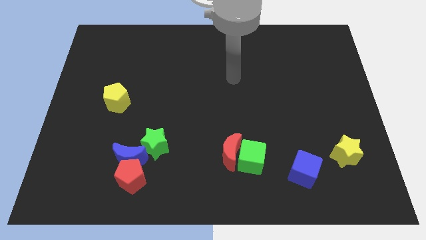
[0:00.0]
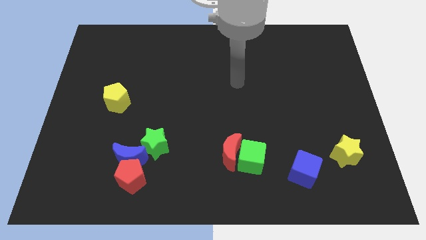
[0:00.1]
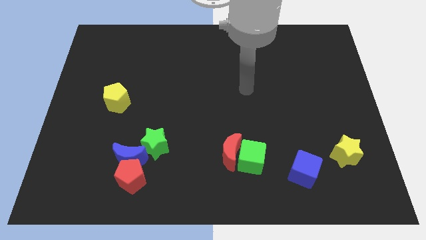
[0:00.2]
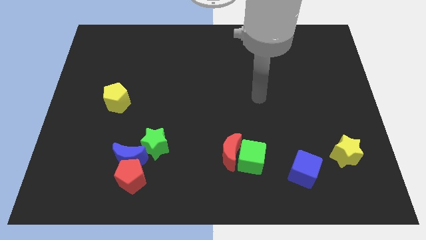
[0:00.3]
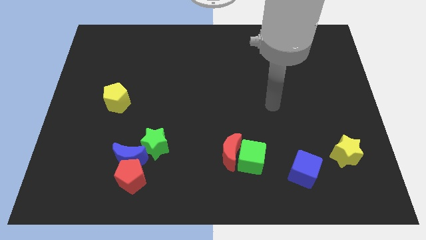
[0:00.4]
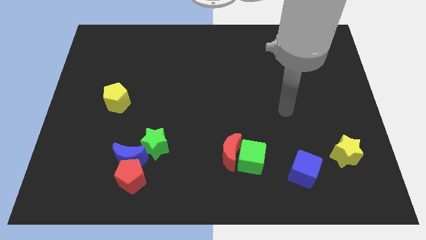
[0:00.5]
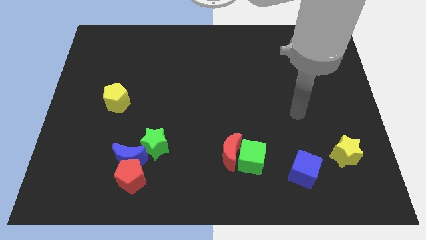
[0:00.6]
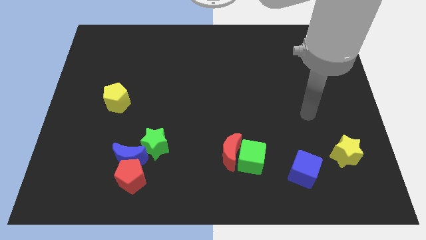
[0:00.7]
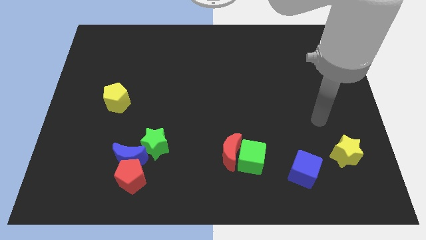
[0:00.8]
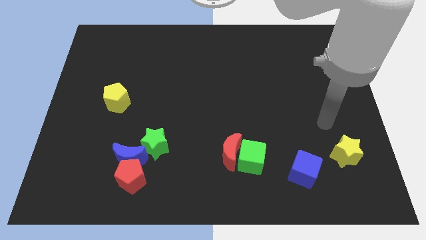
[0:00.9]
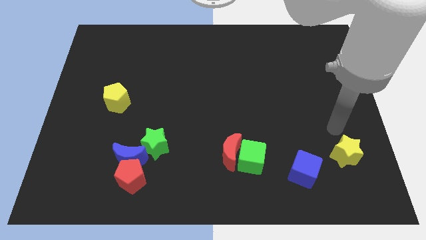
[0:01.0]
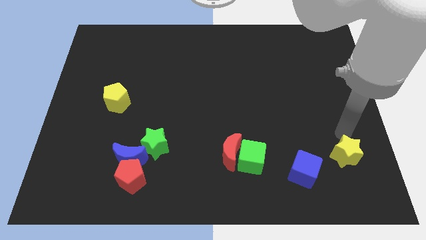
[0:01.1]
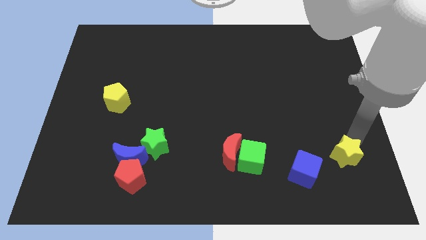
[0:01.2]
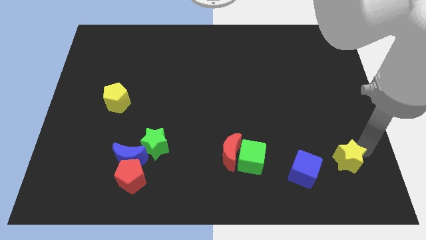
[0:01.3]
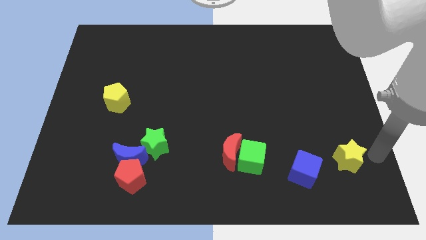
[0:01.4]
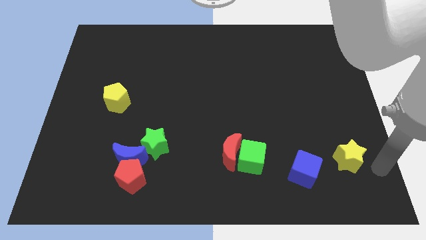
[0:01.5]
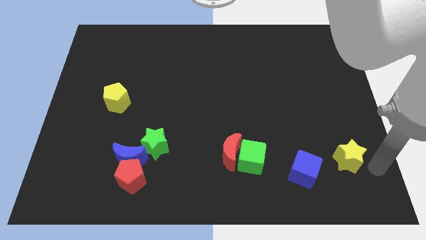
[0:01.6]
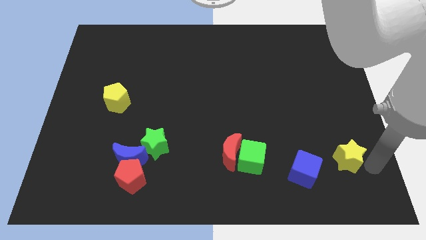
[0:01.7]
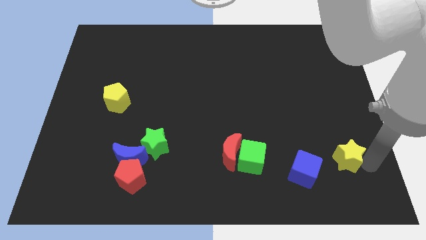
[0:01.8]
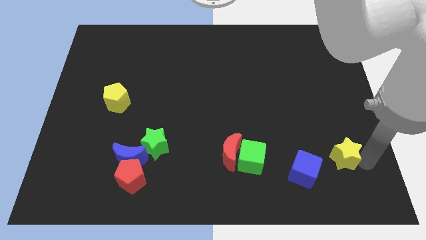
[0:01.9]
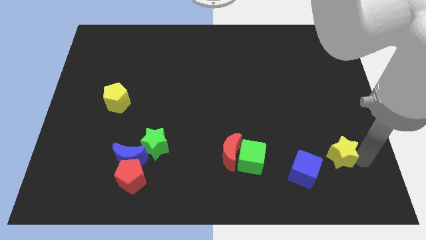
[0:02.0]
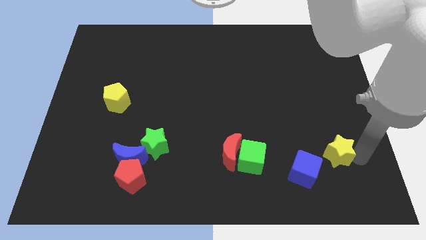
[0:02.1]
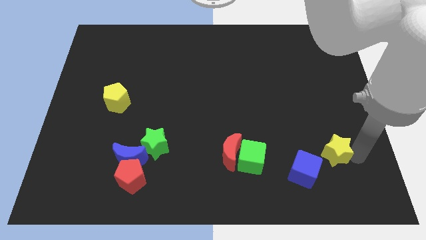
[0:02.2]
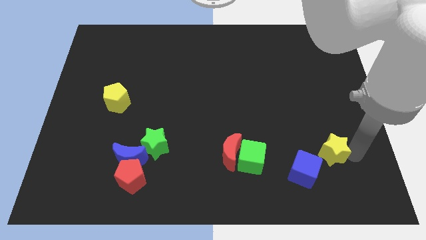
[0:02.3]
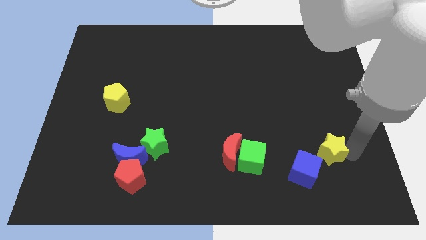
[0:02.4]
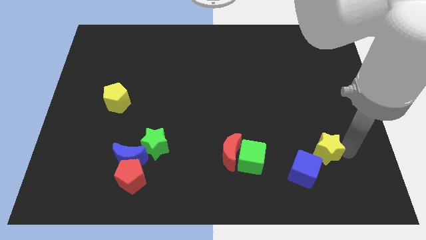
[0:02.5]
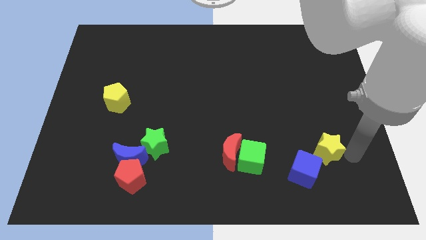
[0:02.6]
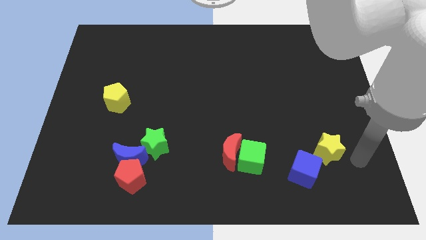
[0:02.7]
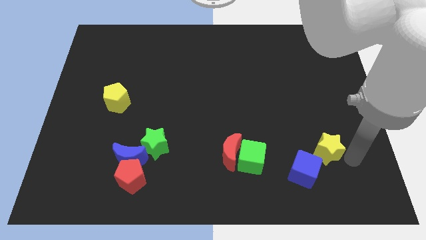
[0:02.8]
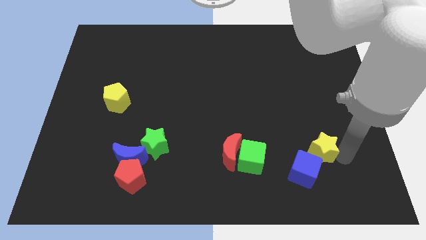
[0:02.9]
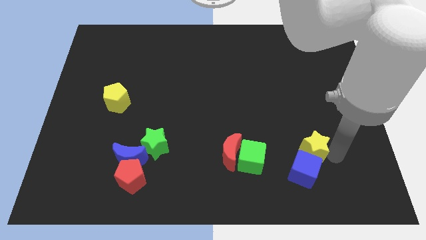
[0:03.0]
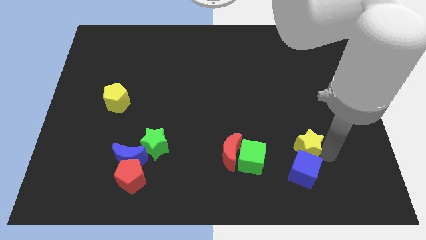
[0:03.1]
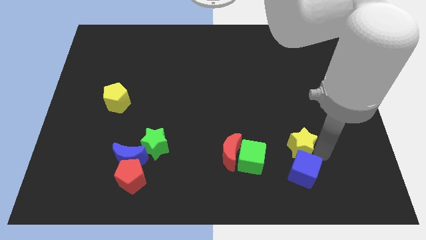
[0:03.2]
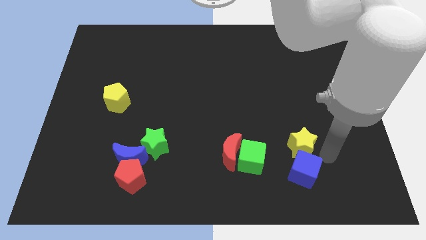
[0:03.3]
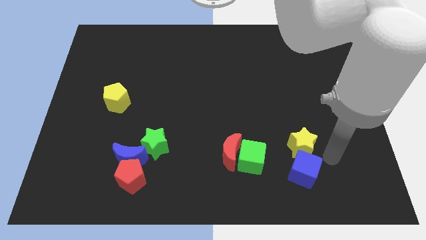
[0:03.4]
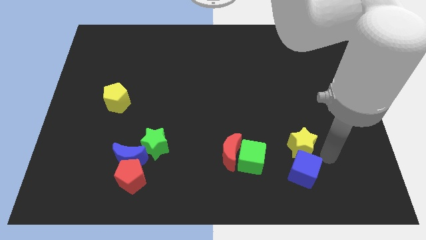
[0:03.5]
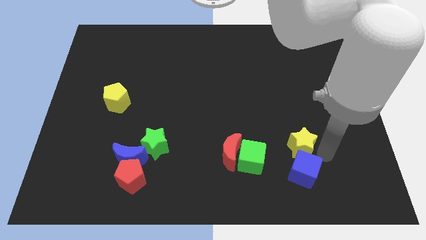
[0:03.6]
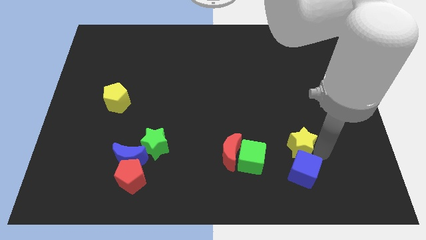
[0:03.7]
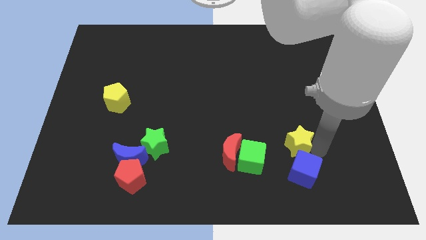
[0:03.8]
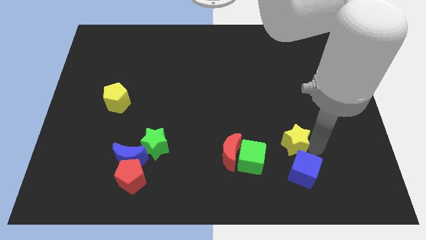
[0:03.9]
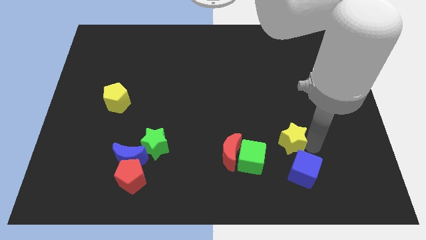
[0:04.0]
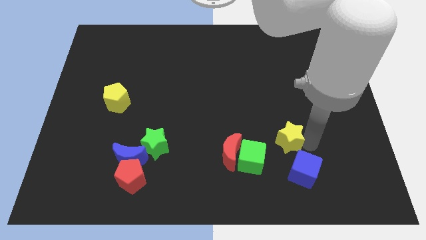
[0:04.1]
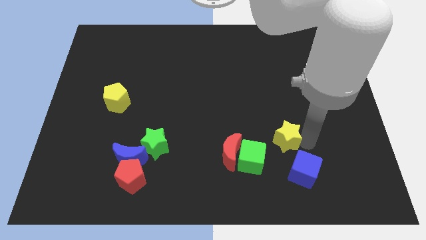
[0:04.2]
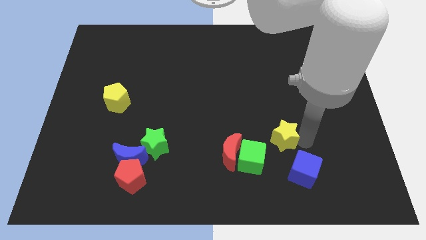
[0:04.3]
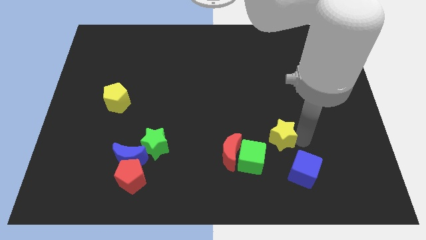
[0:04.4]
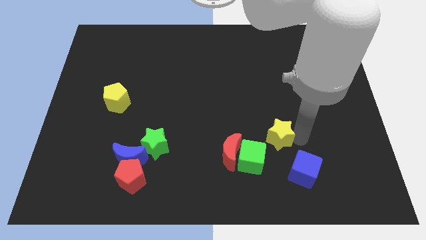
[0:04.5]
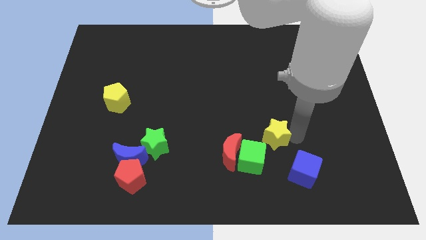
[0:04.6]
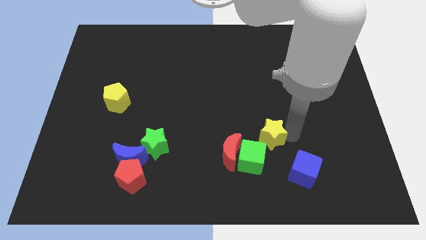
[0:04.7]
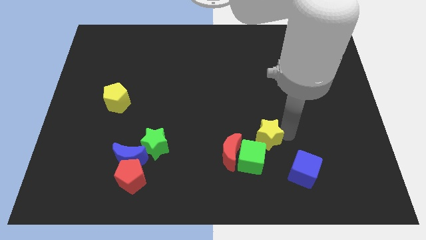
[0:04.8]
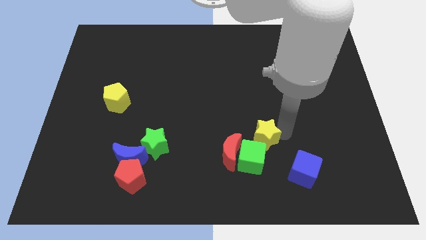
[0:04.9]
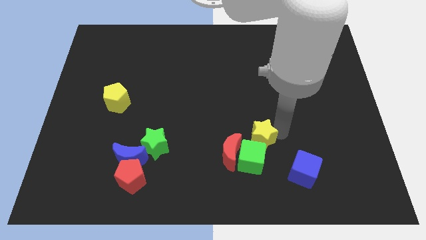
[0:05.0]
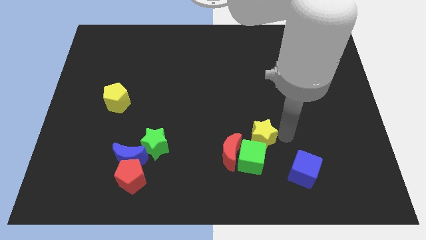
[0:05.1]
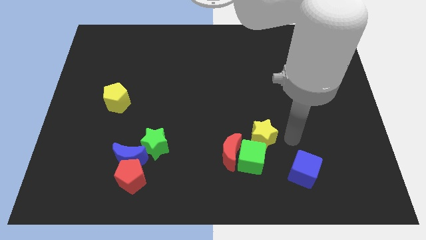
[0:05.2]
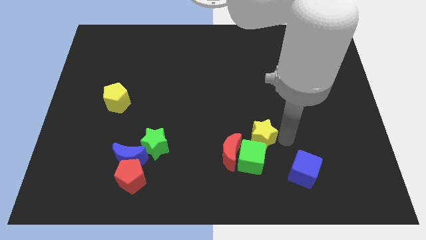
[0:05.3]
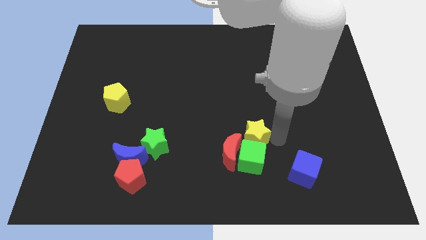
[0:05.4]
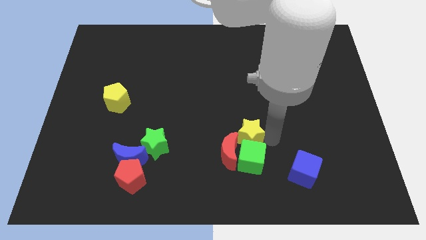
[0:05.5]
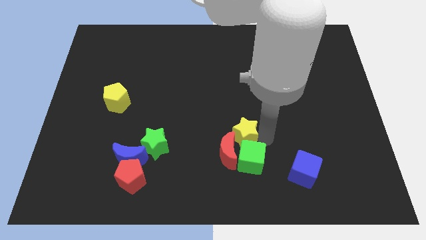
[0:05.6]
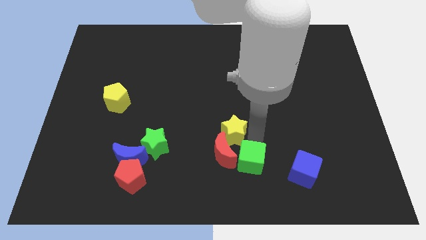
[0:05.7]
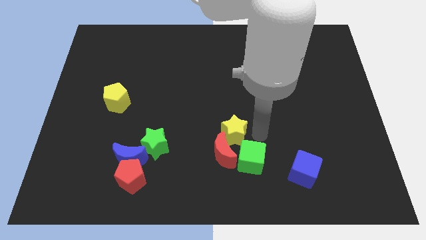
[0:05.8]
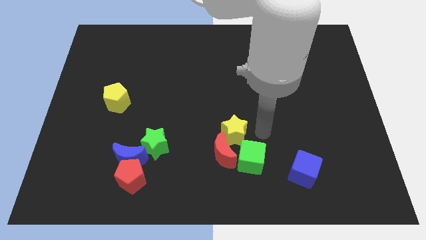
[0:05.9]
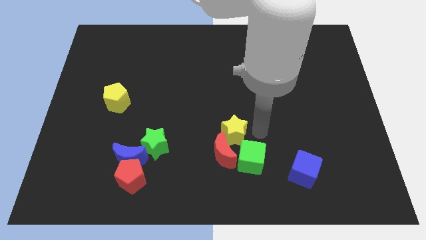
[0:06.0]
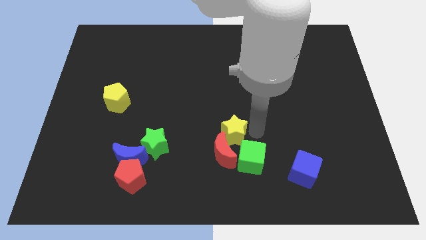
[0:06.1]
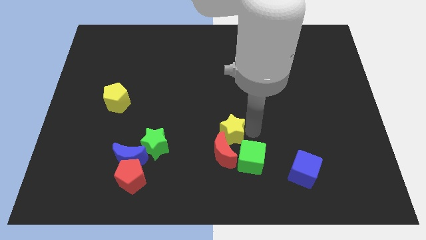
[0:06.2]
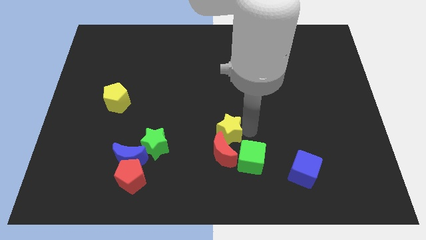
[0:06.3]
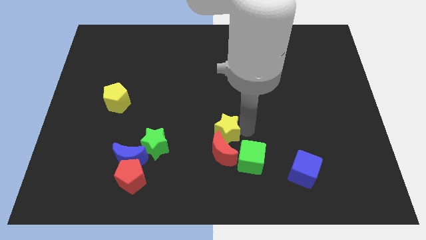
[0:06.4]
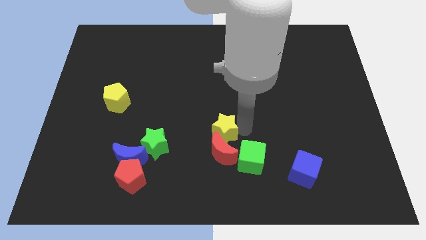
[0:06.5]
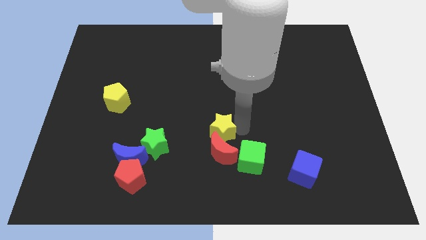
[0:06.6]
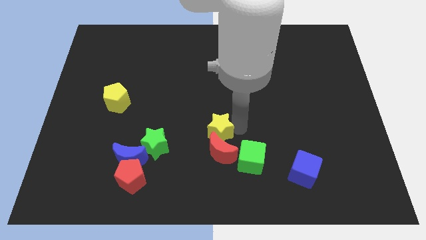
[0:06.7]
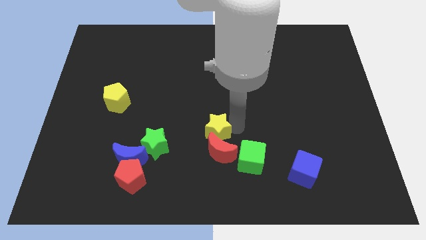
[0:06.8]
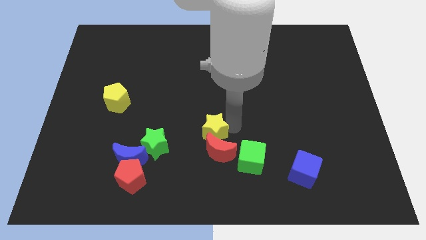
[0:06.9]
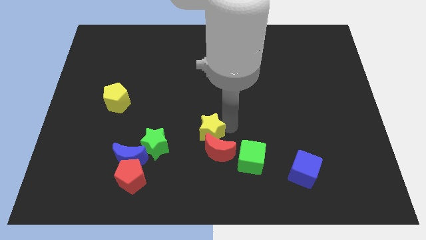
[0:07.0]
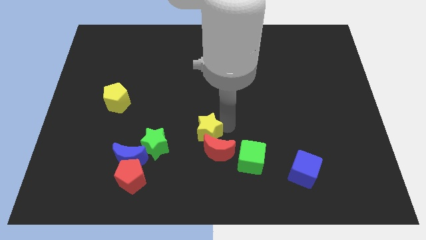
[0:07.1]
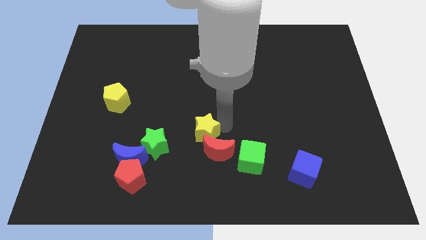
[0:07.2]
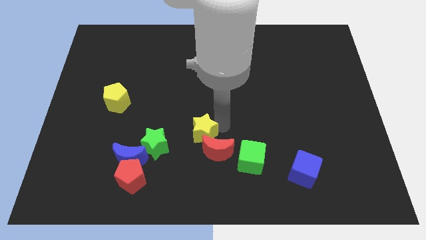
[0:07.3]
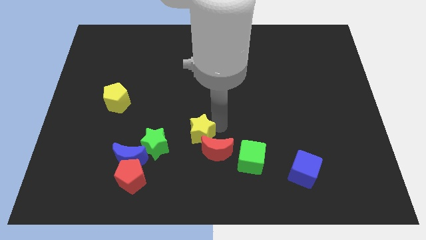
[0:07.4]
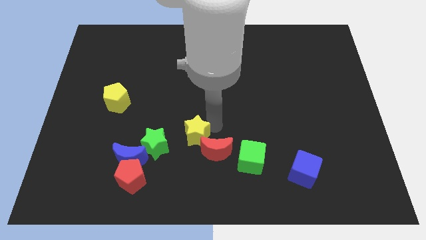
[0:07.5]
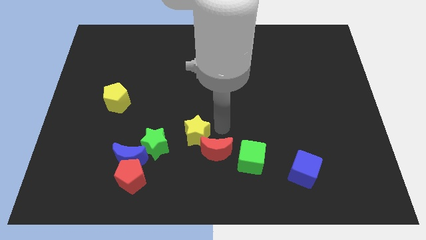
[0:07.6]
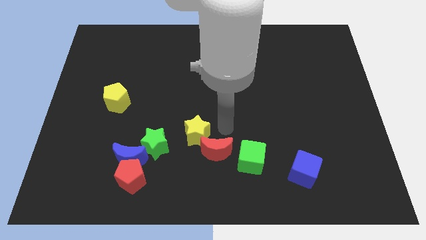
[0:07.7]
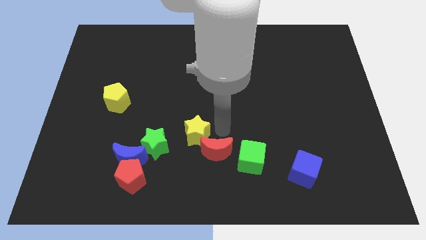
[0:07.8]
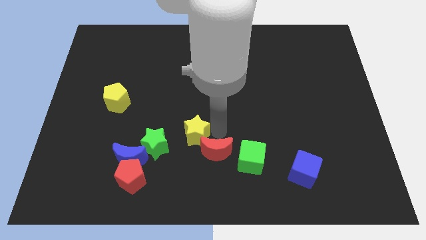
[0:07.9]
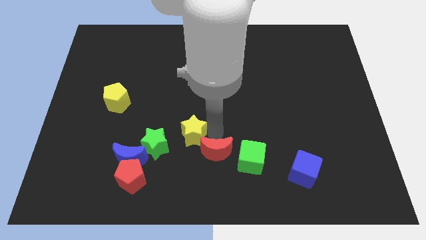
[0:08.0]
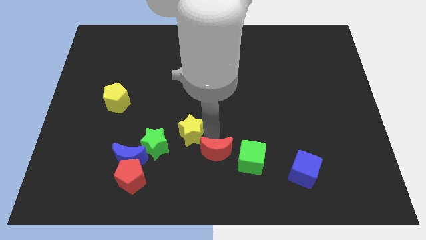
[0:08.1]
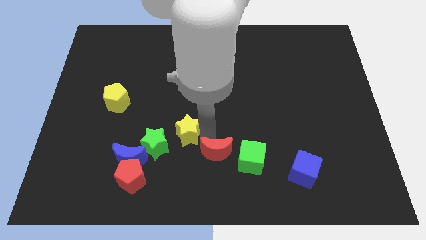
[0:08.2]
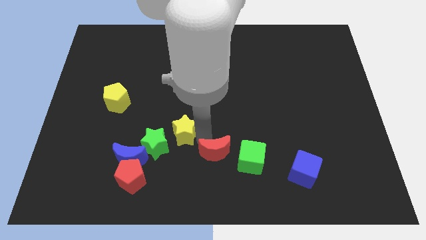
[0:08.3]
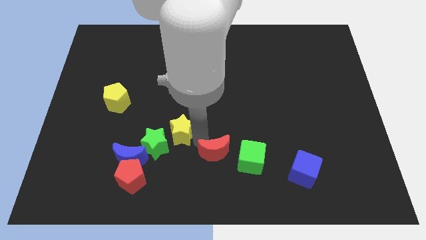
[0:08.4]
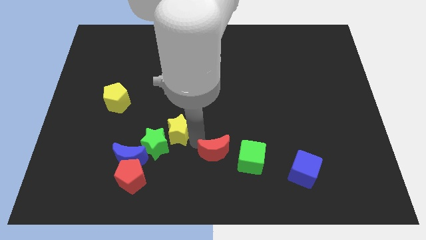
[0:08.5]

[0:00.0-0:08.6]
push the yellow star towards the green star
